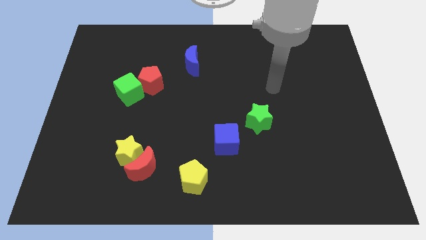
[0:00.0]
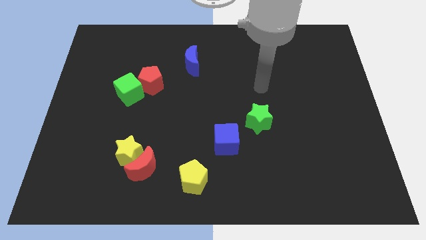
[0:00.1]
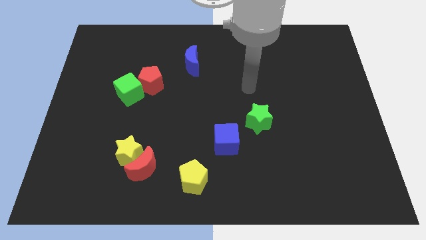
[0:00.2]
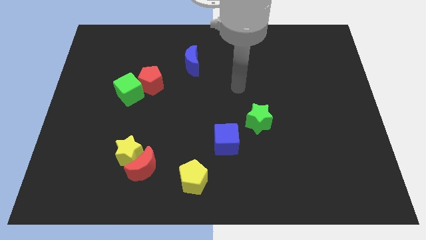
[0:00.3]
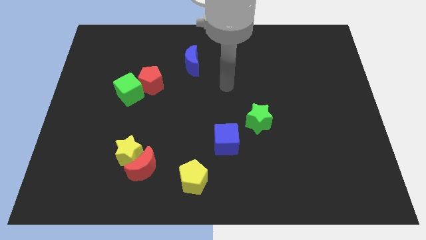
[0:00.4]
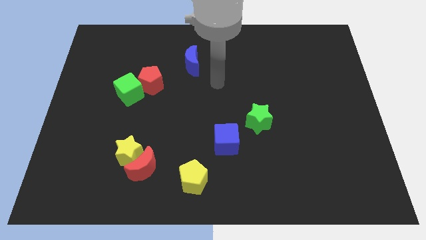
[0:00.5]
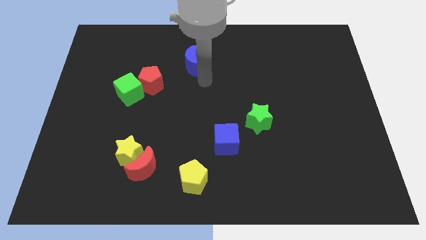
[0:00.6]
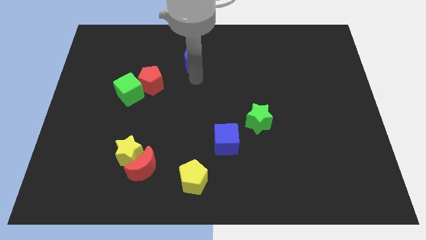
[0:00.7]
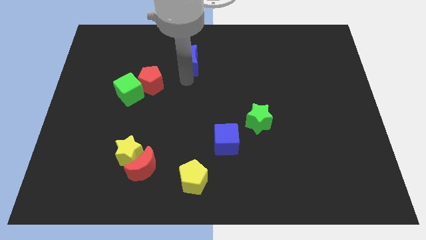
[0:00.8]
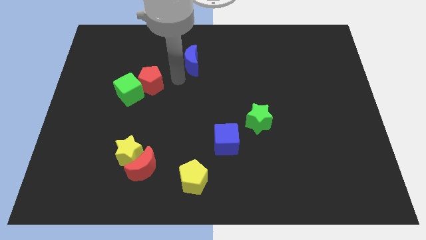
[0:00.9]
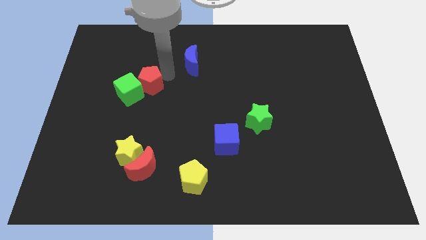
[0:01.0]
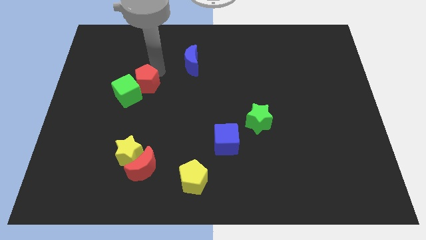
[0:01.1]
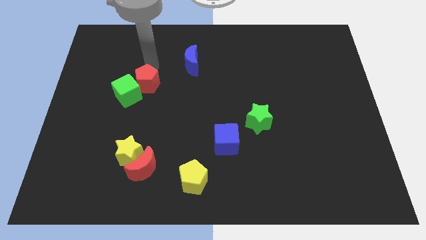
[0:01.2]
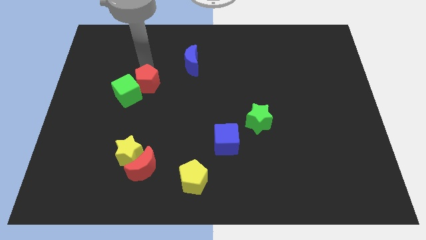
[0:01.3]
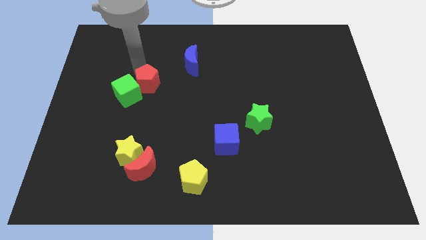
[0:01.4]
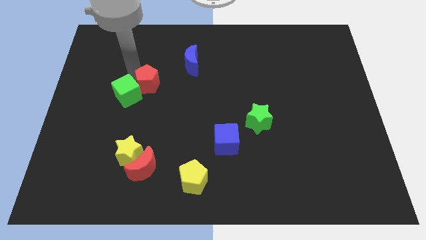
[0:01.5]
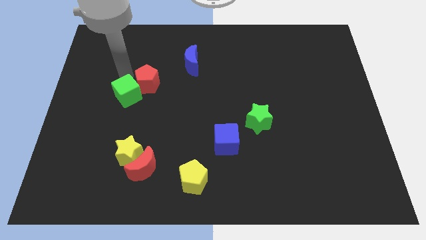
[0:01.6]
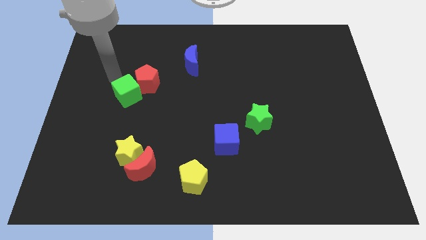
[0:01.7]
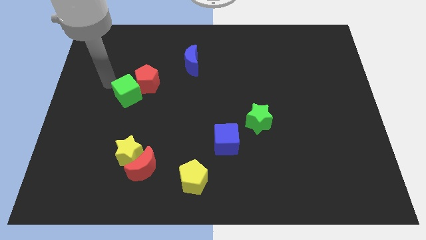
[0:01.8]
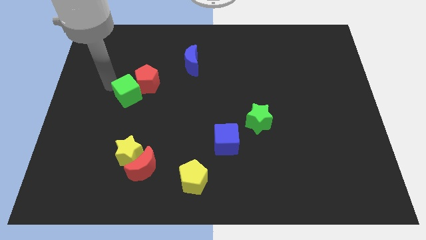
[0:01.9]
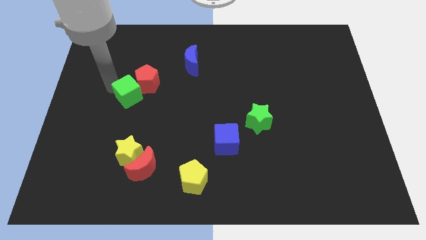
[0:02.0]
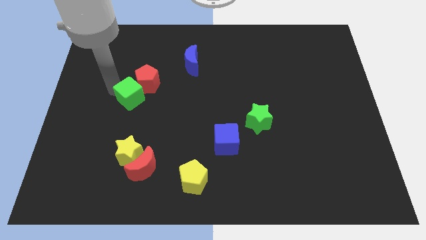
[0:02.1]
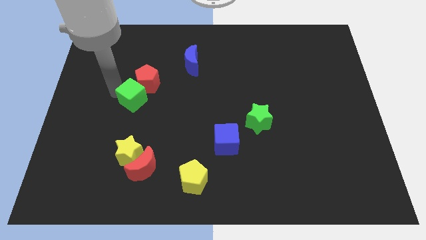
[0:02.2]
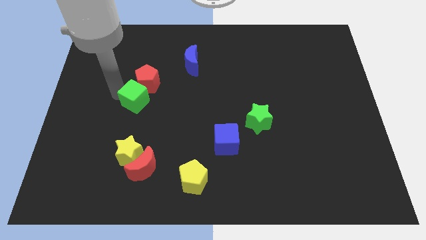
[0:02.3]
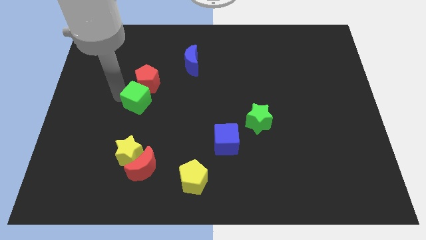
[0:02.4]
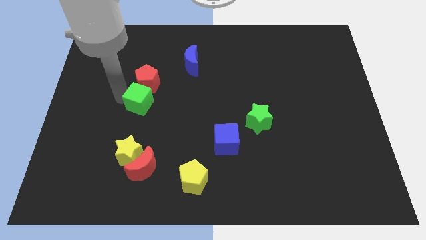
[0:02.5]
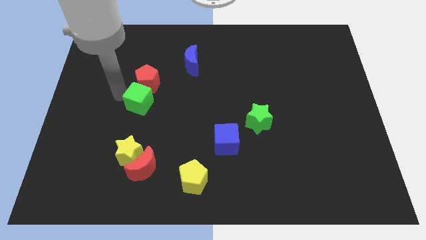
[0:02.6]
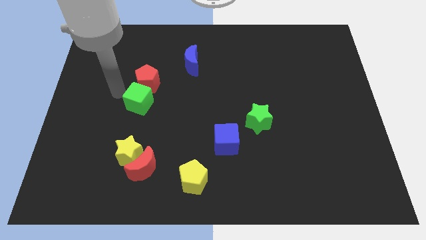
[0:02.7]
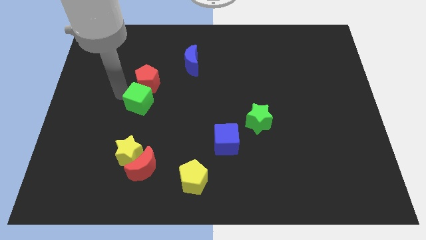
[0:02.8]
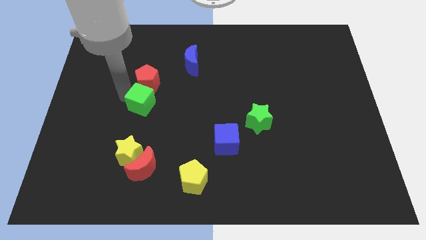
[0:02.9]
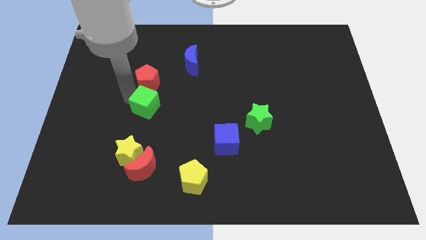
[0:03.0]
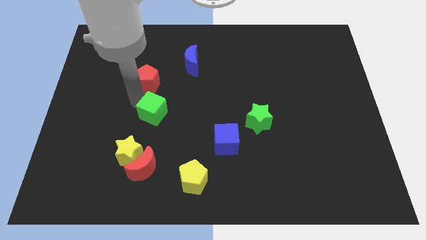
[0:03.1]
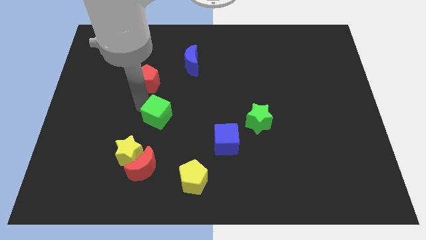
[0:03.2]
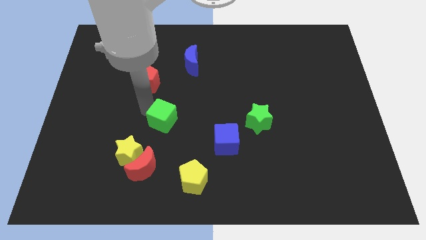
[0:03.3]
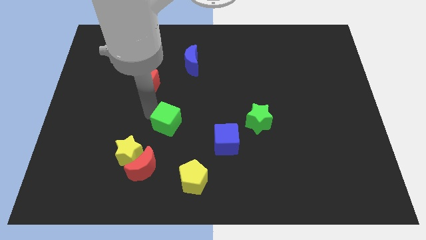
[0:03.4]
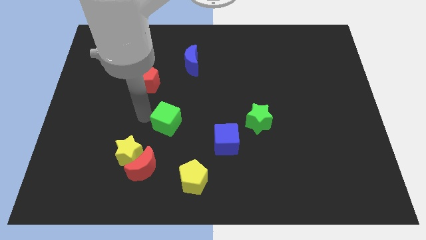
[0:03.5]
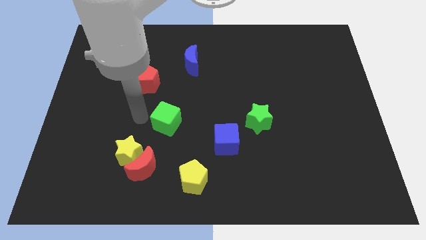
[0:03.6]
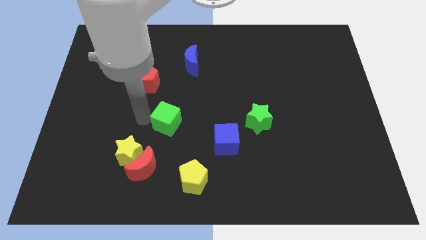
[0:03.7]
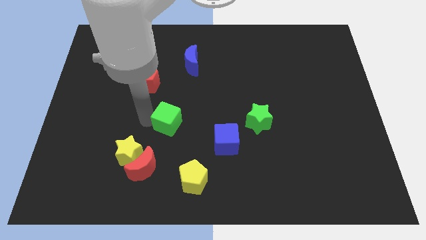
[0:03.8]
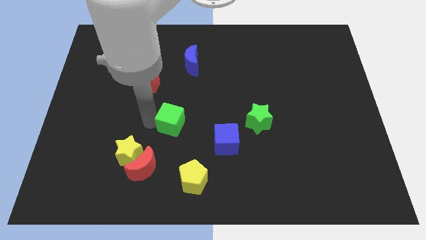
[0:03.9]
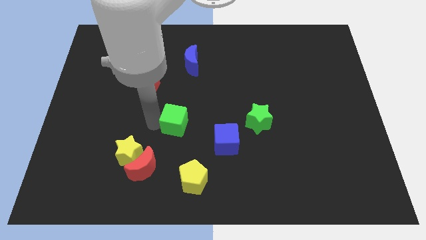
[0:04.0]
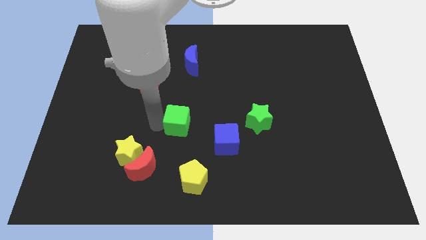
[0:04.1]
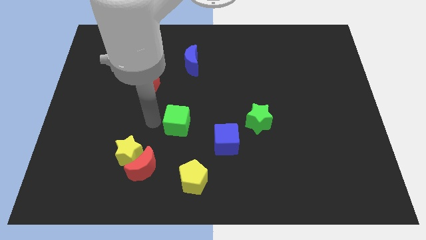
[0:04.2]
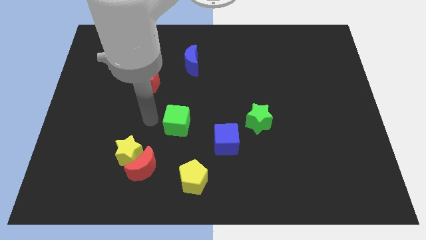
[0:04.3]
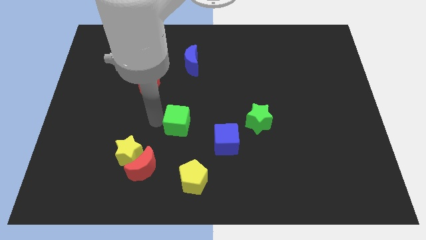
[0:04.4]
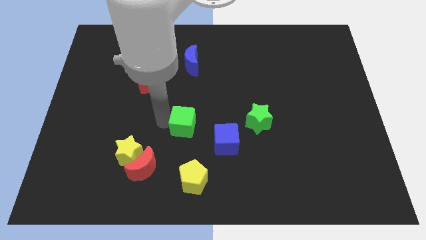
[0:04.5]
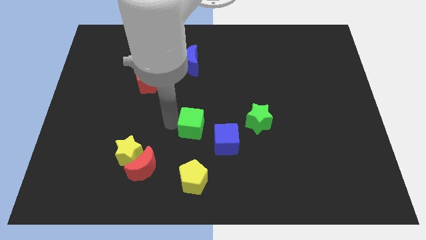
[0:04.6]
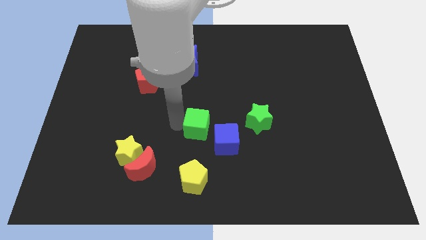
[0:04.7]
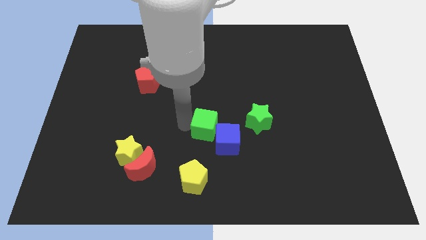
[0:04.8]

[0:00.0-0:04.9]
slide the green cube towards the blue cube

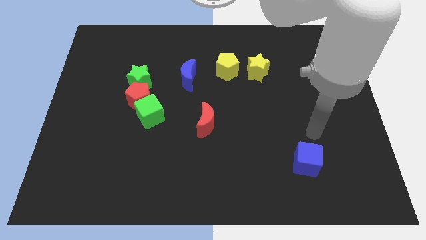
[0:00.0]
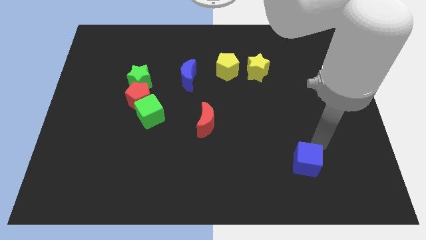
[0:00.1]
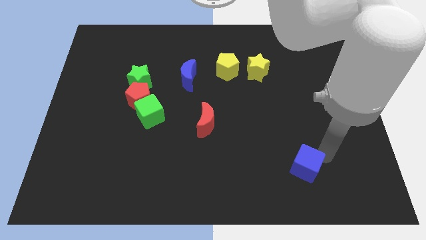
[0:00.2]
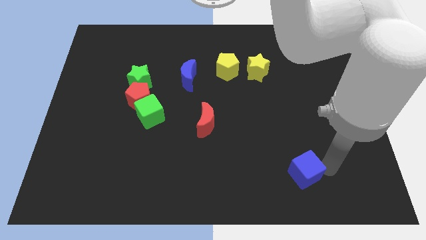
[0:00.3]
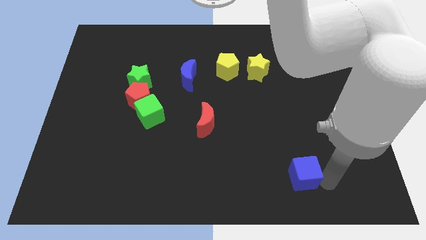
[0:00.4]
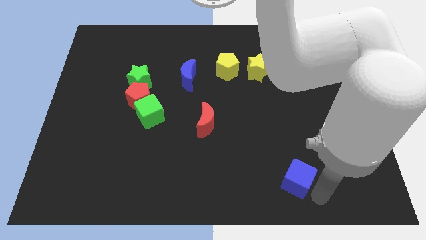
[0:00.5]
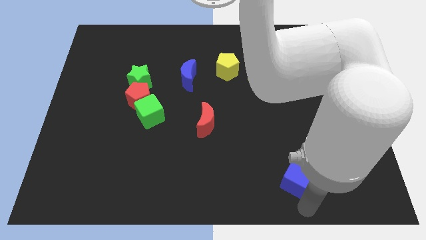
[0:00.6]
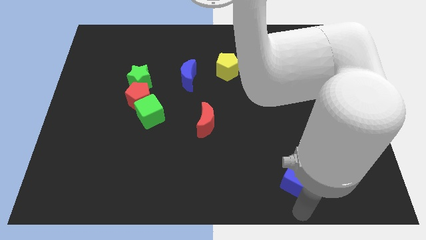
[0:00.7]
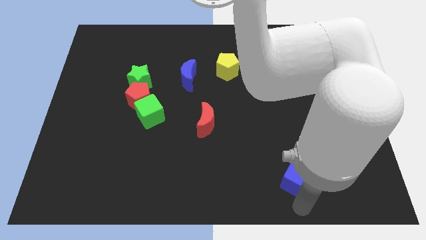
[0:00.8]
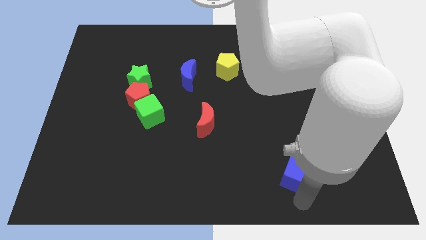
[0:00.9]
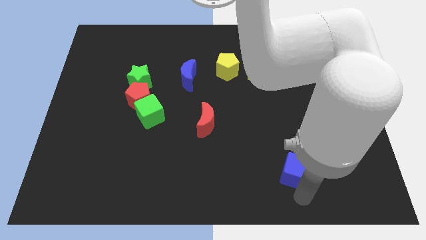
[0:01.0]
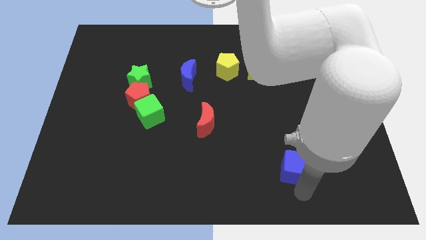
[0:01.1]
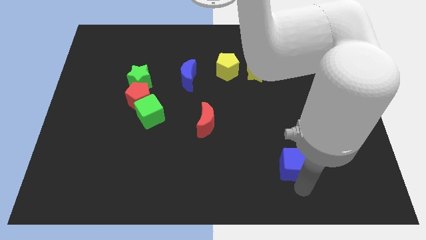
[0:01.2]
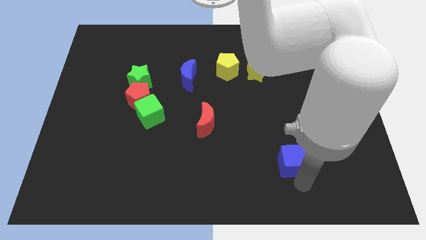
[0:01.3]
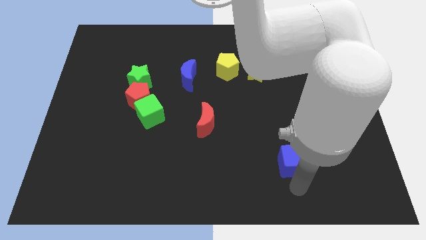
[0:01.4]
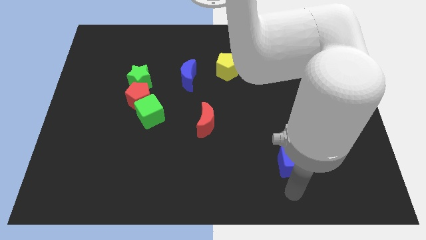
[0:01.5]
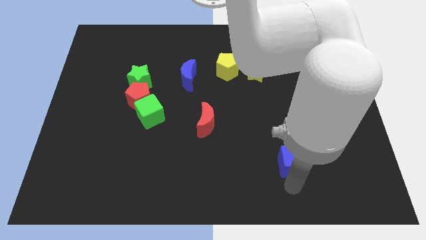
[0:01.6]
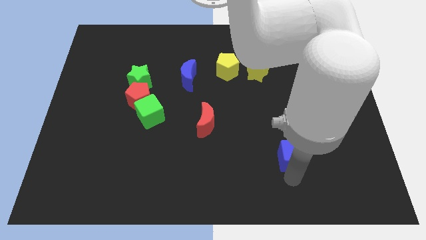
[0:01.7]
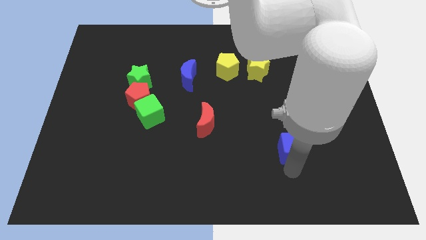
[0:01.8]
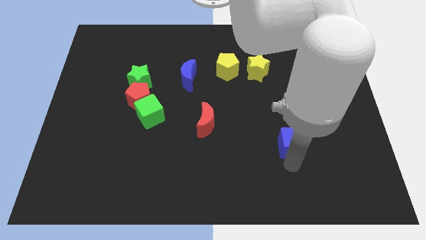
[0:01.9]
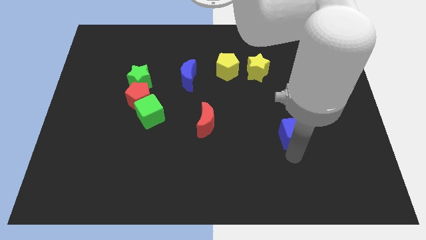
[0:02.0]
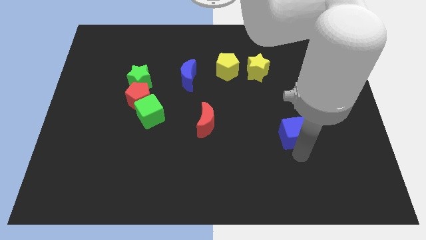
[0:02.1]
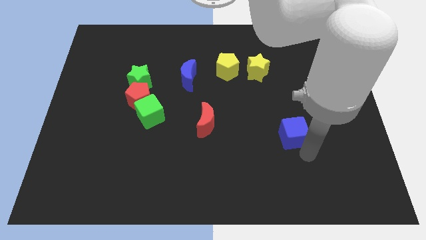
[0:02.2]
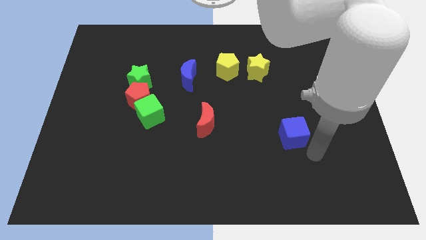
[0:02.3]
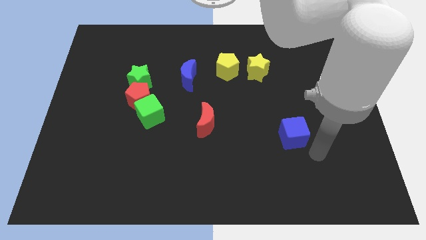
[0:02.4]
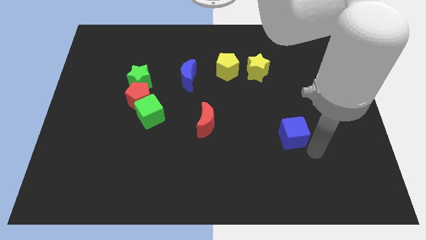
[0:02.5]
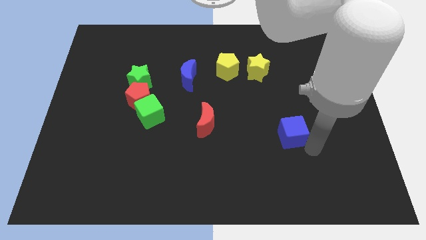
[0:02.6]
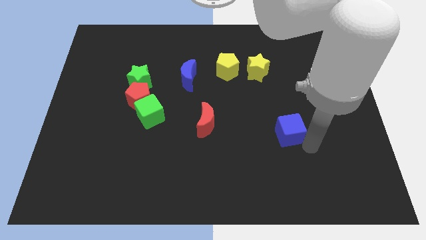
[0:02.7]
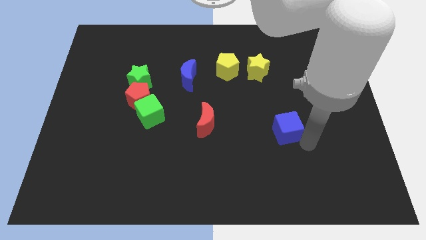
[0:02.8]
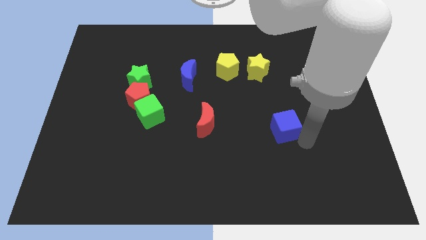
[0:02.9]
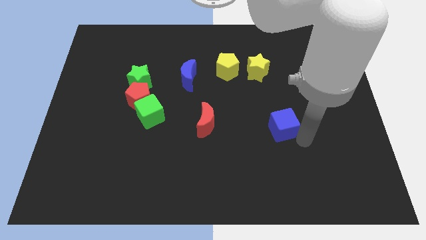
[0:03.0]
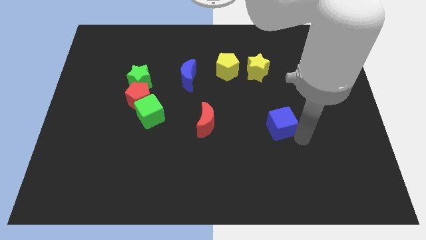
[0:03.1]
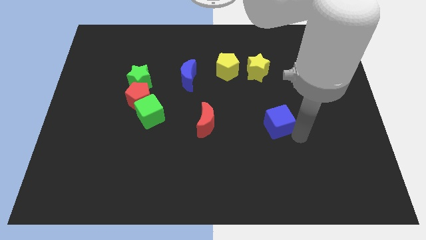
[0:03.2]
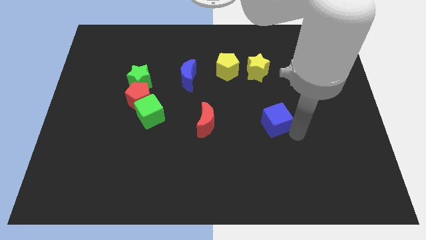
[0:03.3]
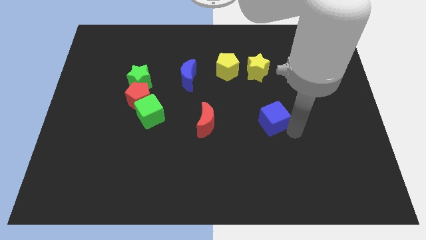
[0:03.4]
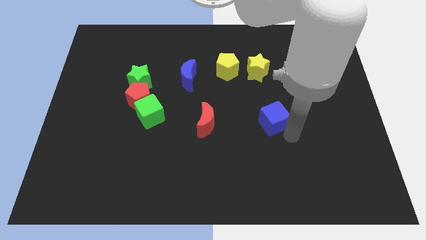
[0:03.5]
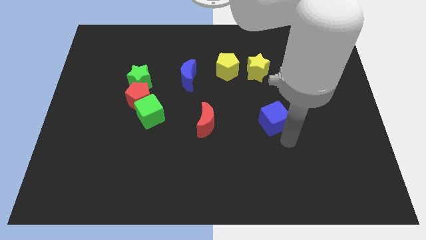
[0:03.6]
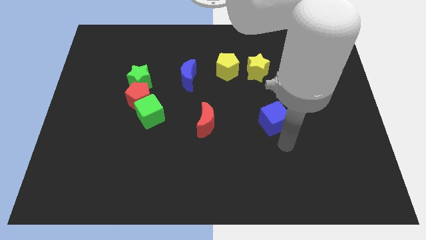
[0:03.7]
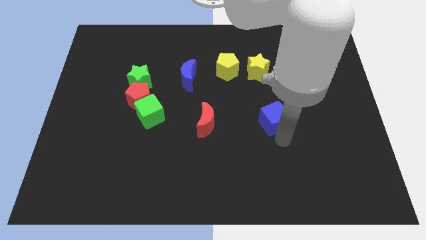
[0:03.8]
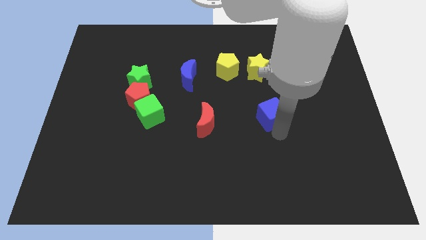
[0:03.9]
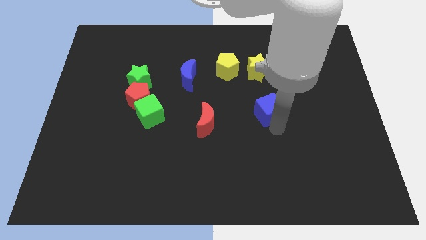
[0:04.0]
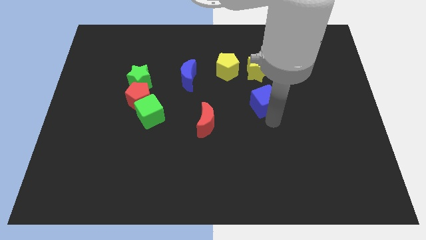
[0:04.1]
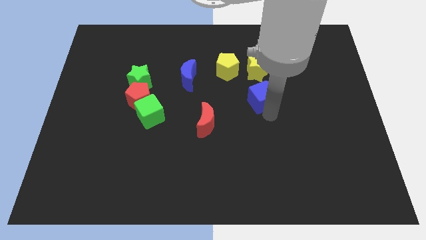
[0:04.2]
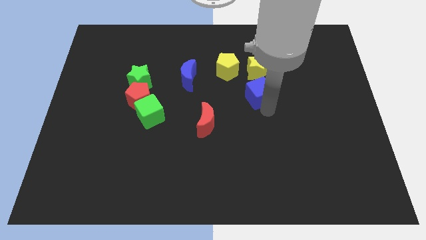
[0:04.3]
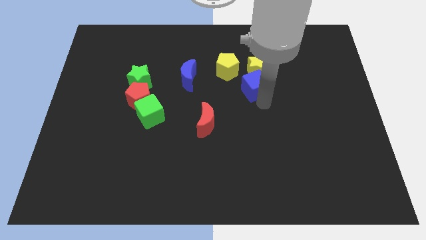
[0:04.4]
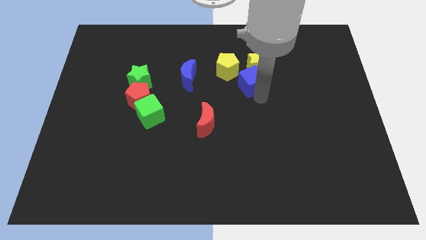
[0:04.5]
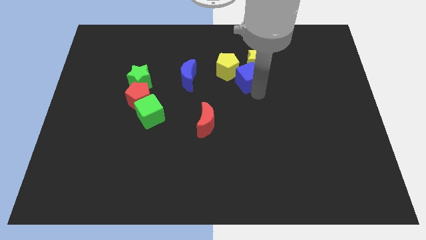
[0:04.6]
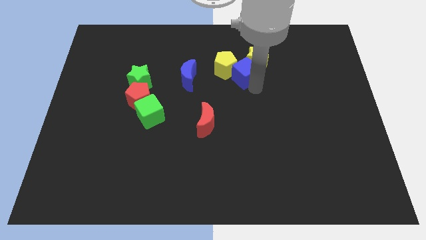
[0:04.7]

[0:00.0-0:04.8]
put the blue cube towards the yellow pentagon
